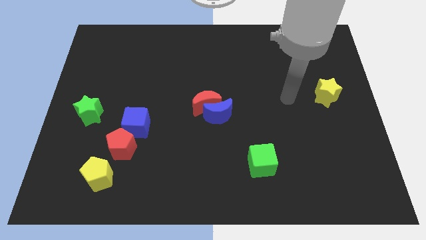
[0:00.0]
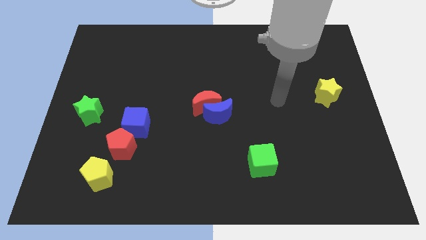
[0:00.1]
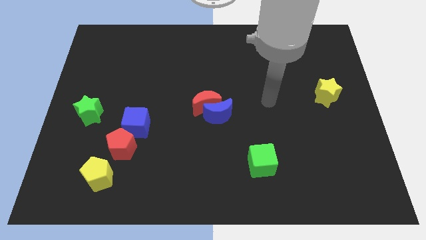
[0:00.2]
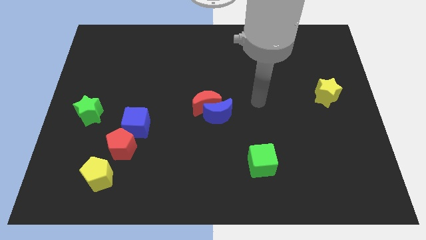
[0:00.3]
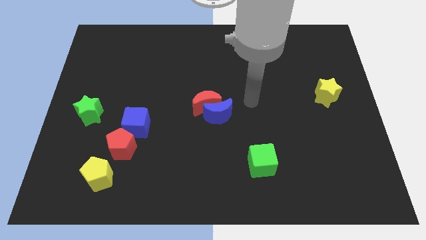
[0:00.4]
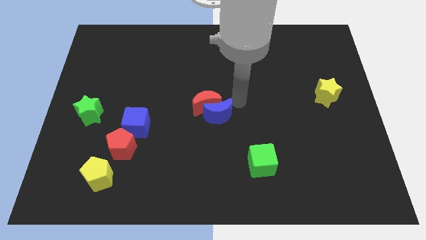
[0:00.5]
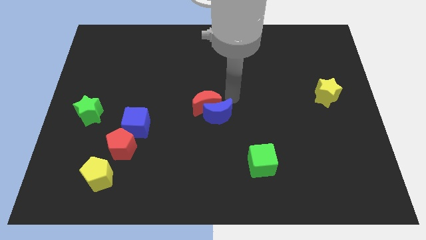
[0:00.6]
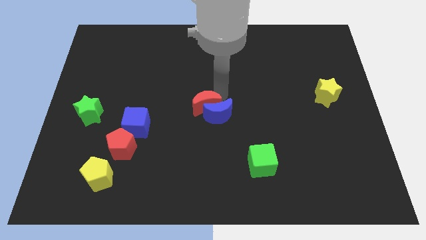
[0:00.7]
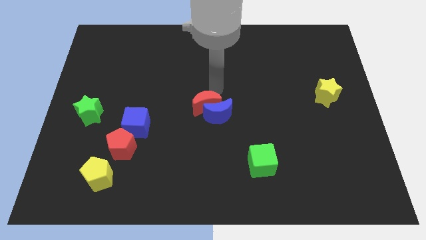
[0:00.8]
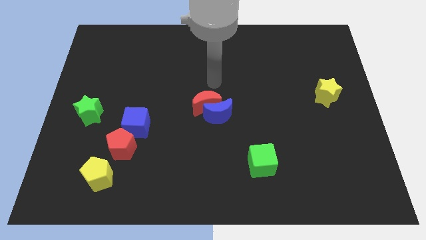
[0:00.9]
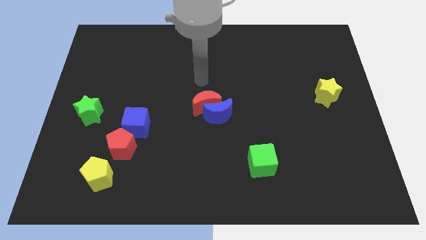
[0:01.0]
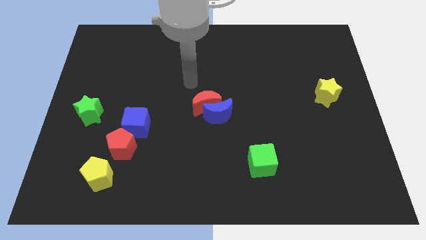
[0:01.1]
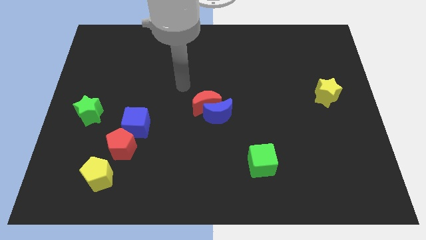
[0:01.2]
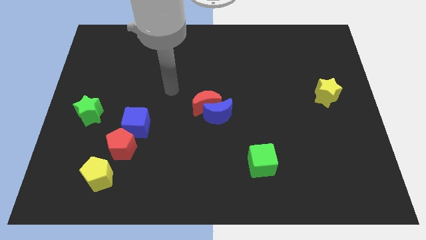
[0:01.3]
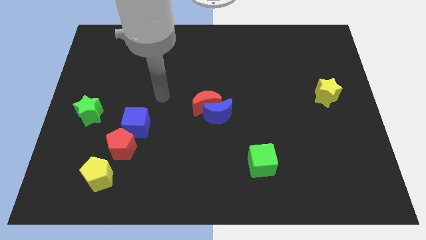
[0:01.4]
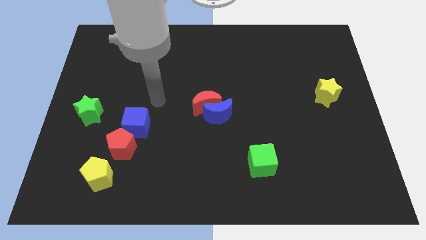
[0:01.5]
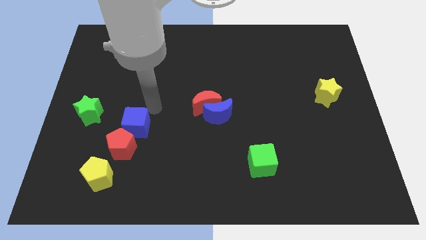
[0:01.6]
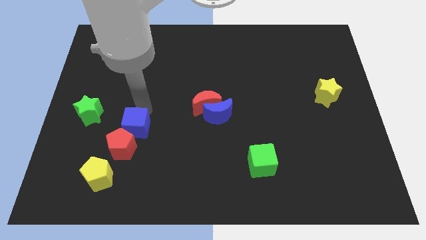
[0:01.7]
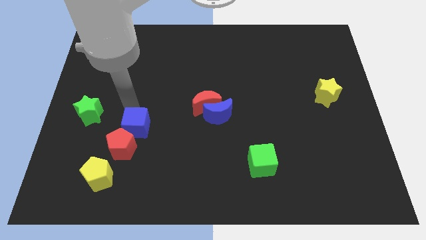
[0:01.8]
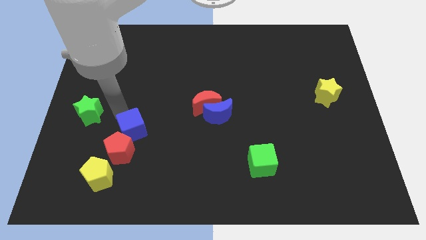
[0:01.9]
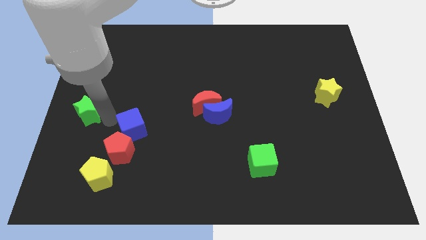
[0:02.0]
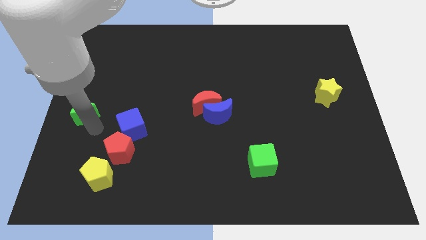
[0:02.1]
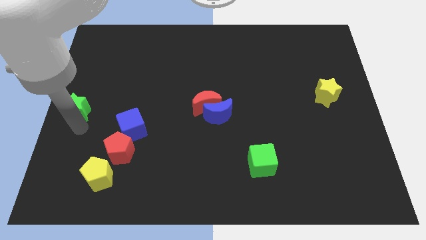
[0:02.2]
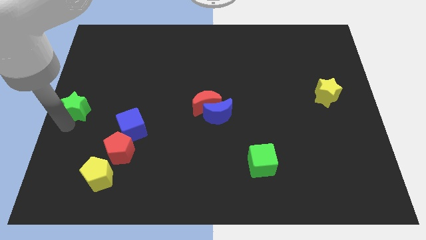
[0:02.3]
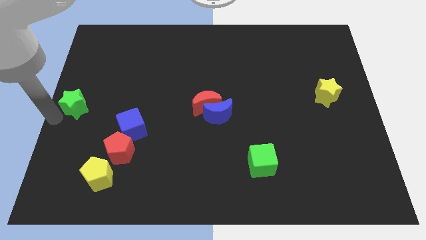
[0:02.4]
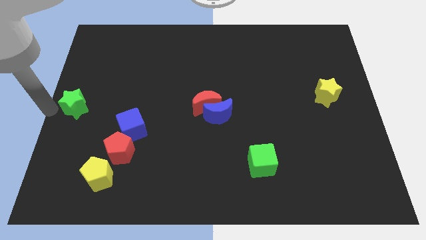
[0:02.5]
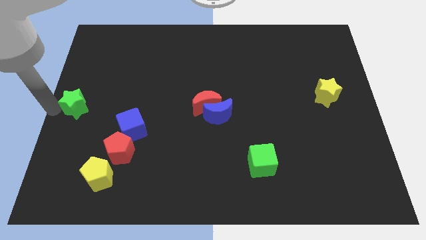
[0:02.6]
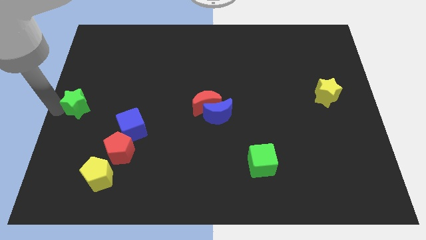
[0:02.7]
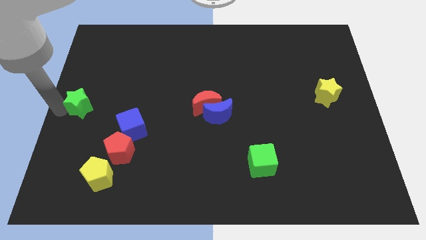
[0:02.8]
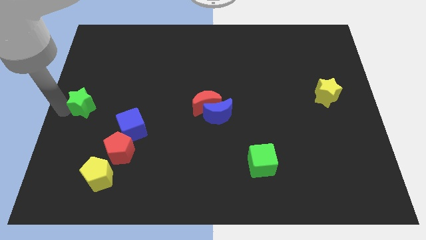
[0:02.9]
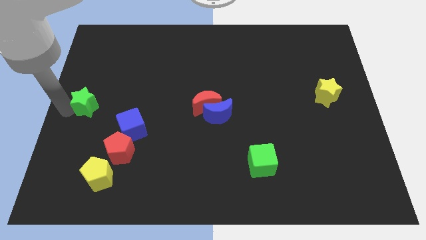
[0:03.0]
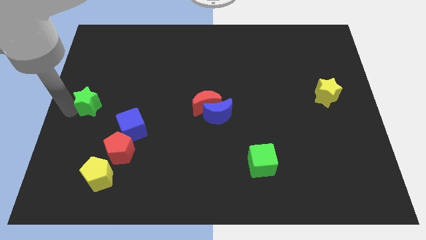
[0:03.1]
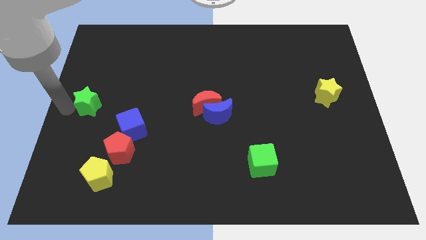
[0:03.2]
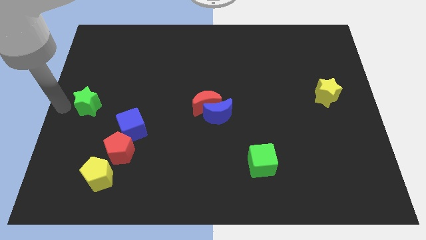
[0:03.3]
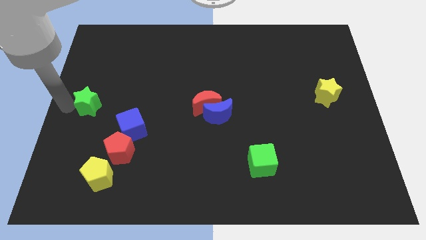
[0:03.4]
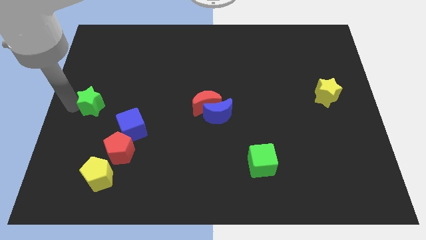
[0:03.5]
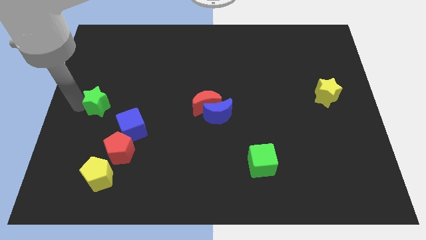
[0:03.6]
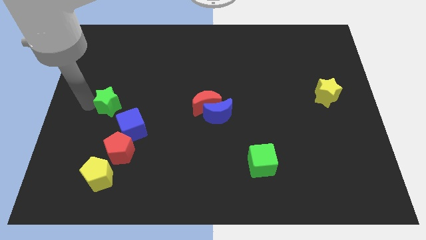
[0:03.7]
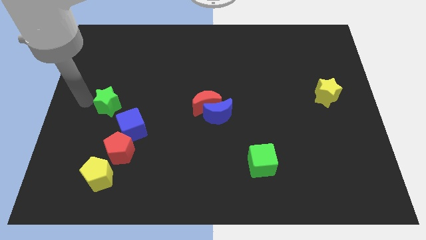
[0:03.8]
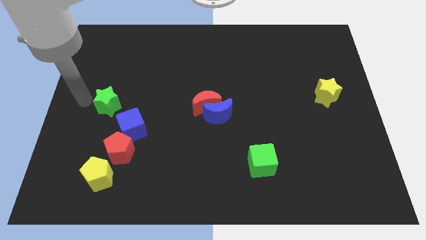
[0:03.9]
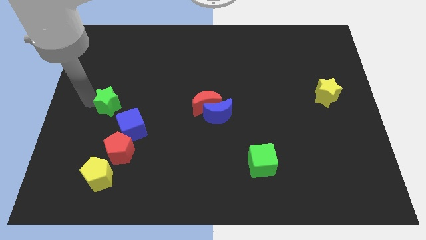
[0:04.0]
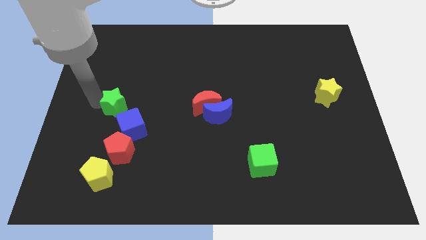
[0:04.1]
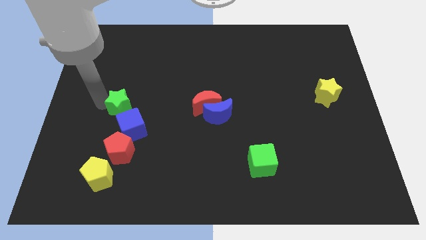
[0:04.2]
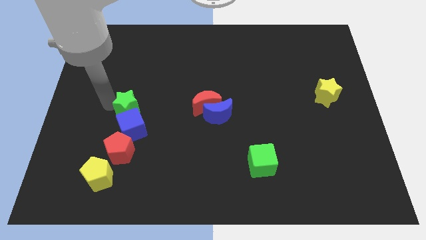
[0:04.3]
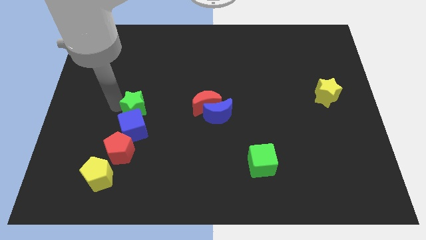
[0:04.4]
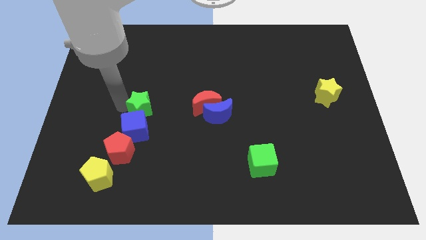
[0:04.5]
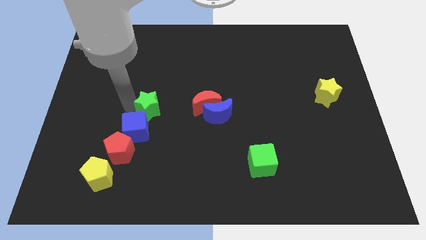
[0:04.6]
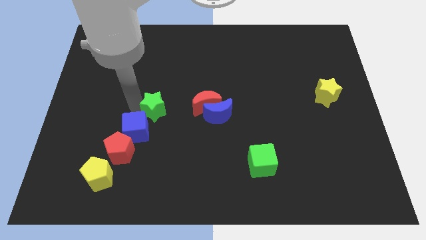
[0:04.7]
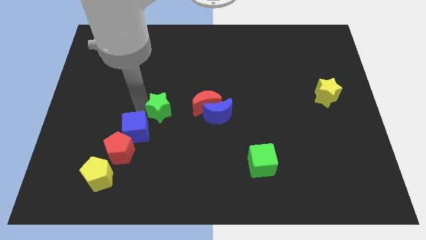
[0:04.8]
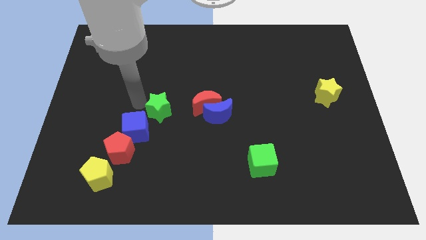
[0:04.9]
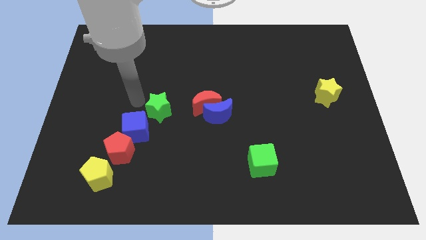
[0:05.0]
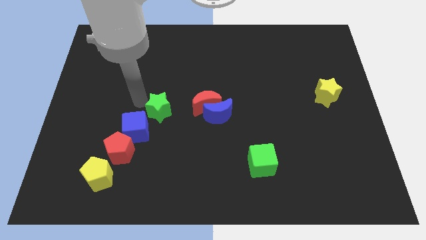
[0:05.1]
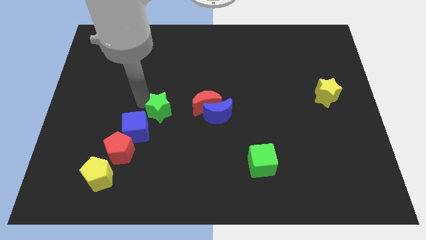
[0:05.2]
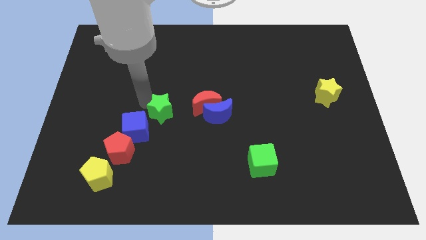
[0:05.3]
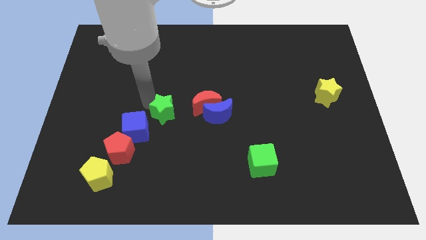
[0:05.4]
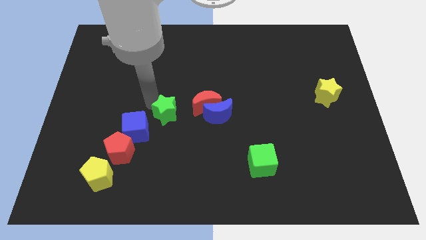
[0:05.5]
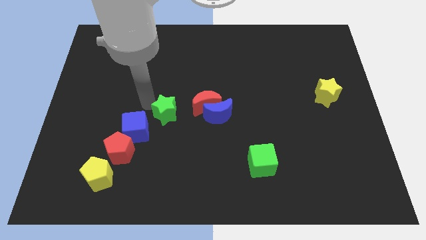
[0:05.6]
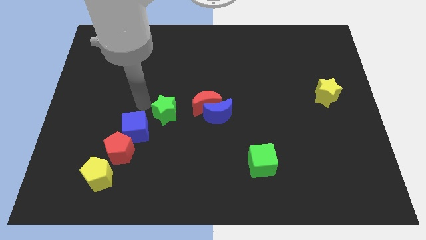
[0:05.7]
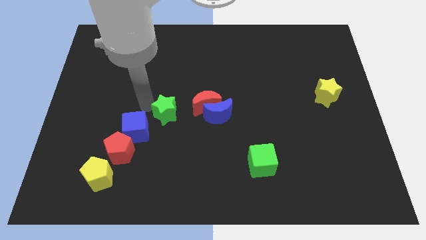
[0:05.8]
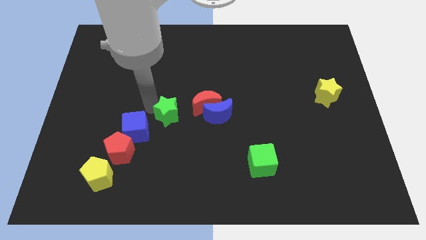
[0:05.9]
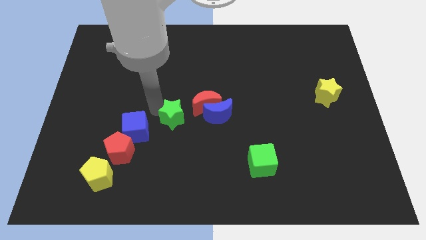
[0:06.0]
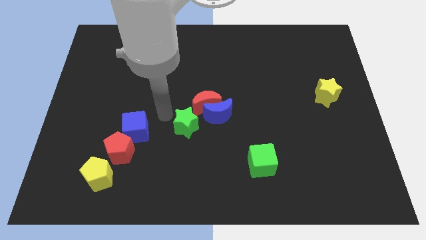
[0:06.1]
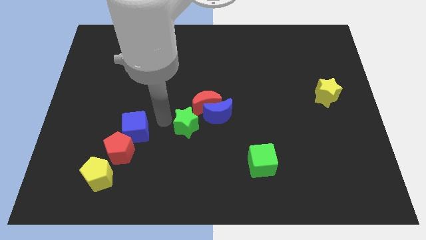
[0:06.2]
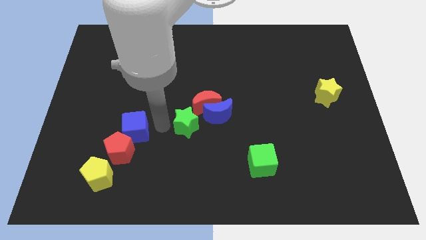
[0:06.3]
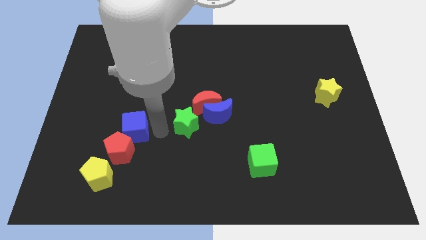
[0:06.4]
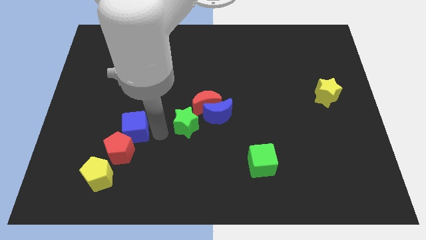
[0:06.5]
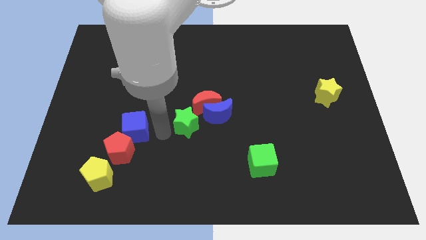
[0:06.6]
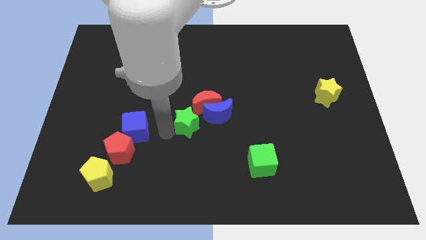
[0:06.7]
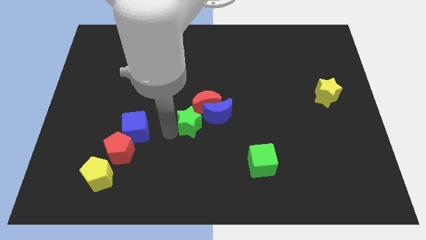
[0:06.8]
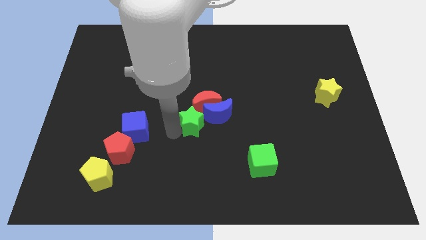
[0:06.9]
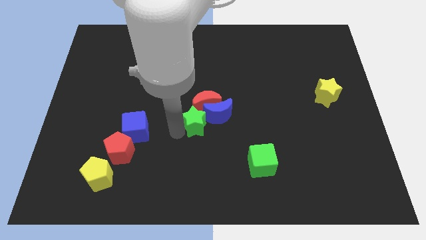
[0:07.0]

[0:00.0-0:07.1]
move the green star close to the blue moon

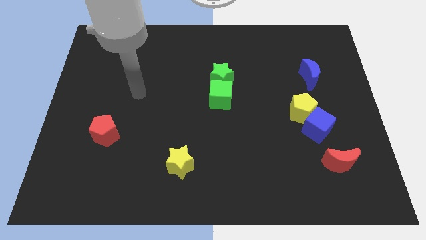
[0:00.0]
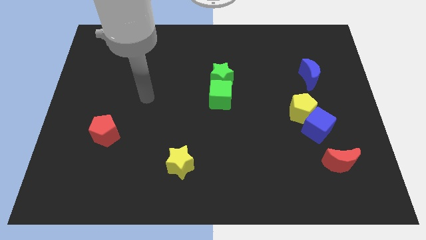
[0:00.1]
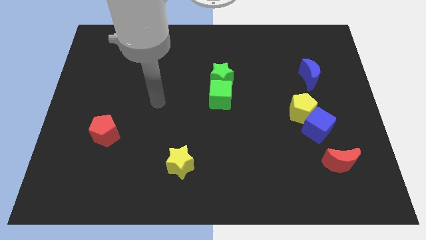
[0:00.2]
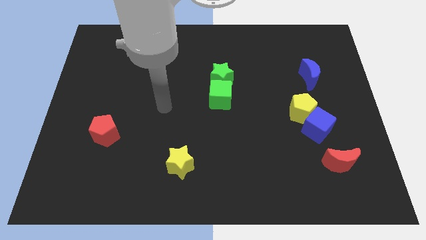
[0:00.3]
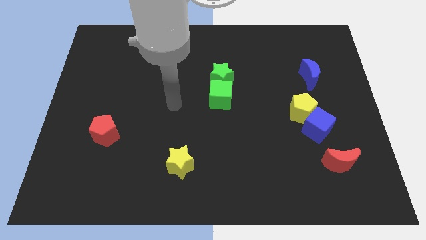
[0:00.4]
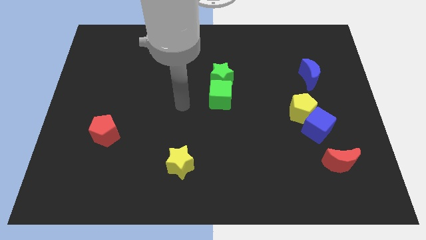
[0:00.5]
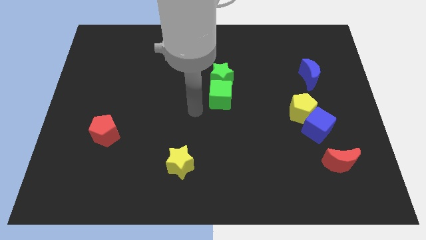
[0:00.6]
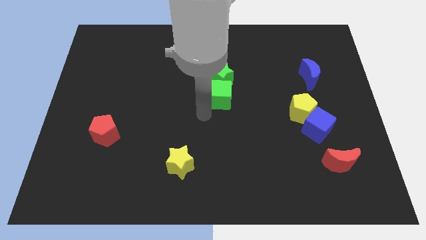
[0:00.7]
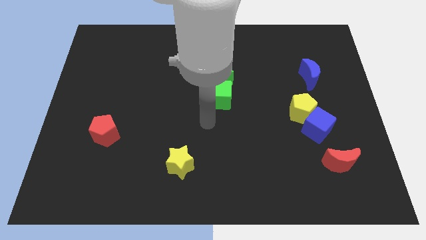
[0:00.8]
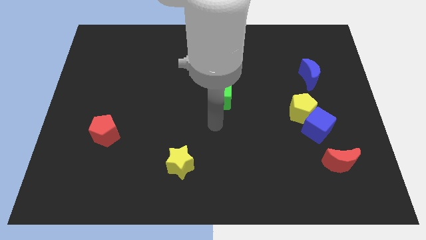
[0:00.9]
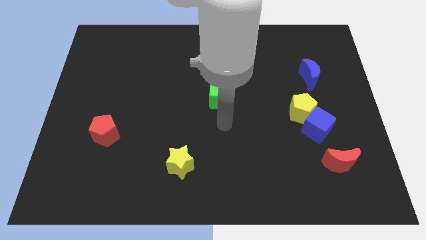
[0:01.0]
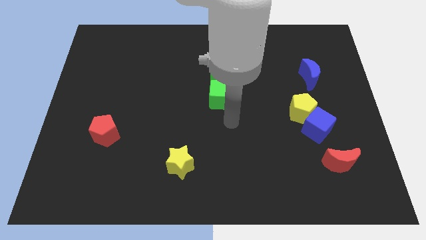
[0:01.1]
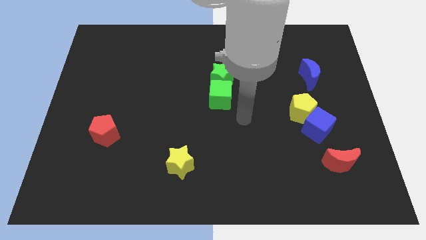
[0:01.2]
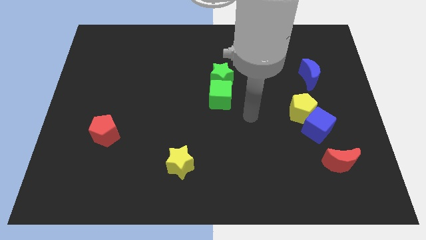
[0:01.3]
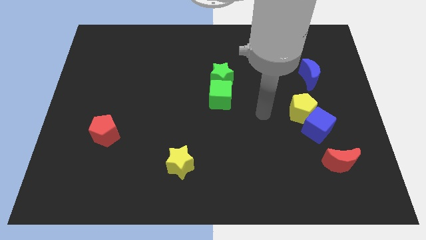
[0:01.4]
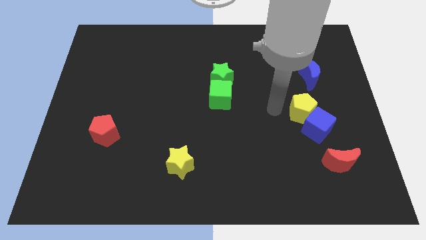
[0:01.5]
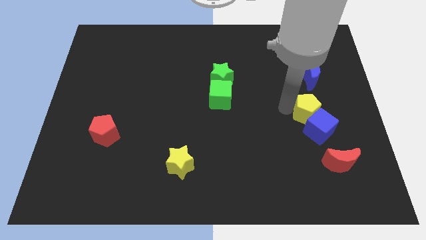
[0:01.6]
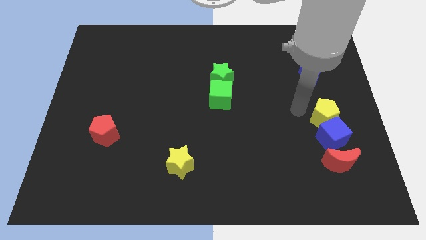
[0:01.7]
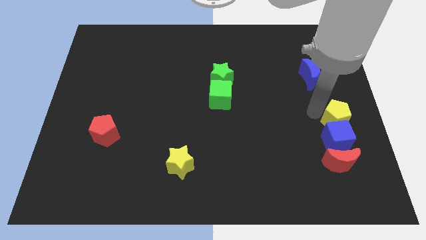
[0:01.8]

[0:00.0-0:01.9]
push the blue cube next to the red moon
